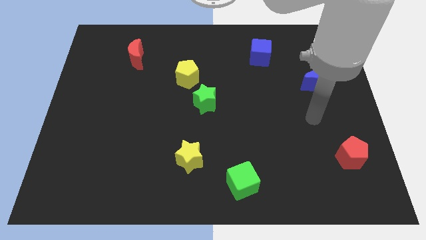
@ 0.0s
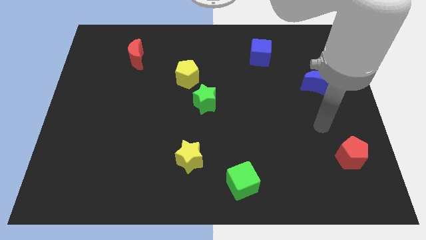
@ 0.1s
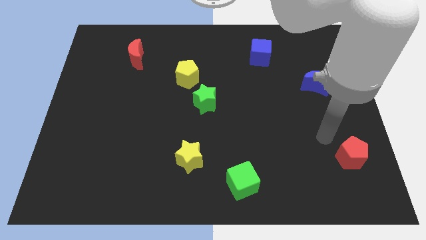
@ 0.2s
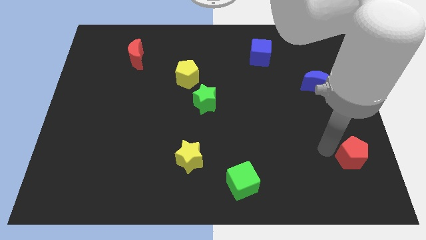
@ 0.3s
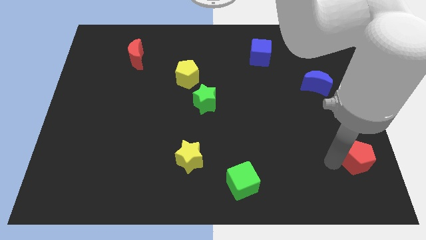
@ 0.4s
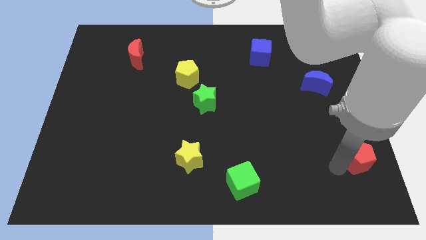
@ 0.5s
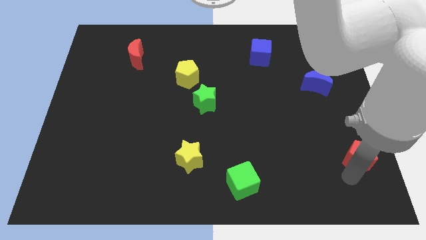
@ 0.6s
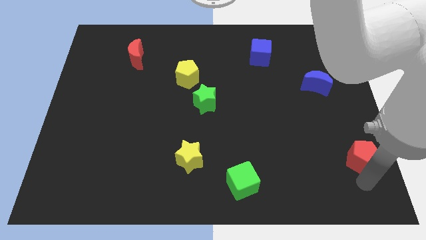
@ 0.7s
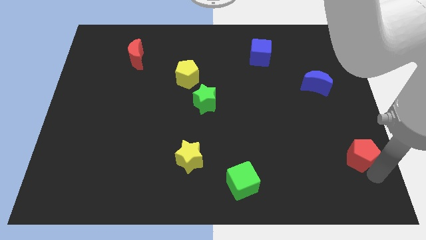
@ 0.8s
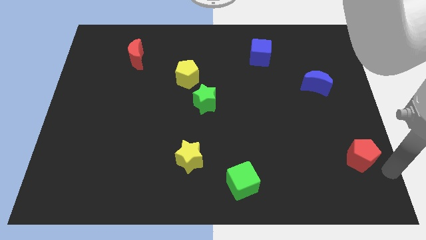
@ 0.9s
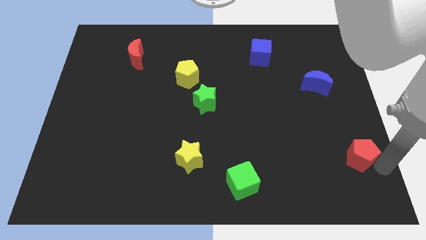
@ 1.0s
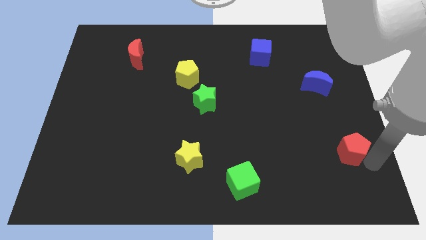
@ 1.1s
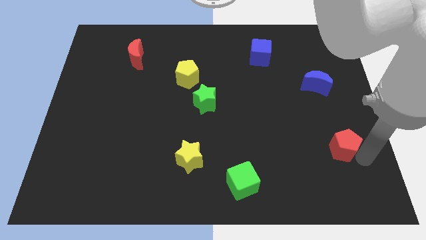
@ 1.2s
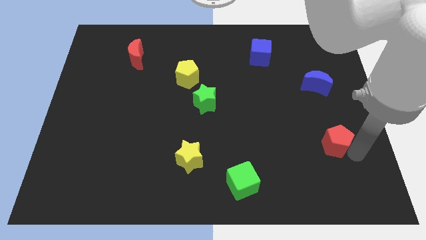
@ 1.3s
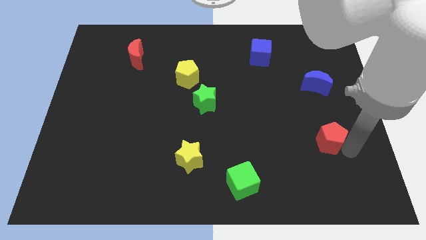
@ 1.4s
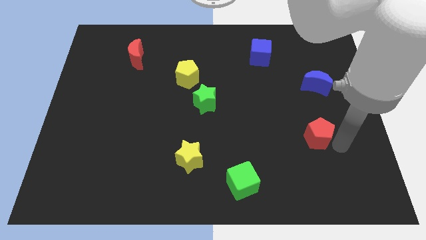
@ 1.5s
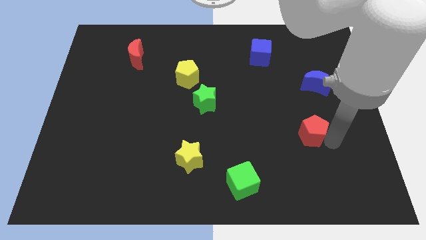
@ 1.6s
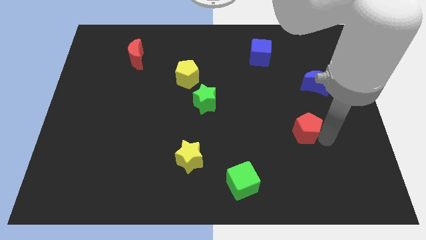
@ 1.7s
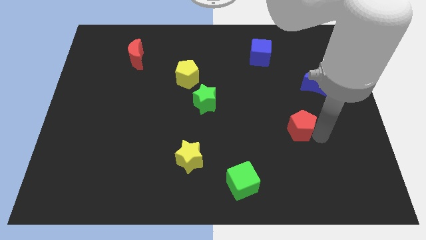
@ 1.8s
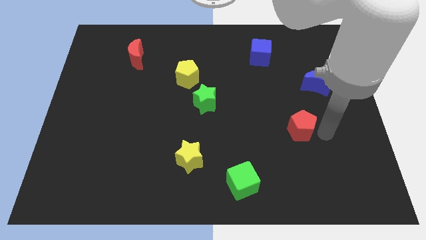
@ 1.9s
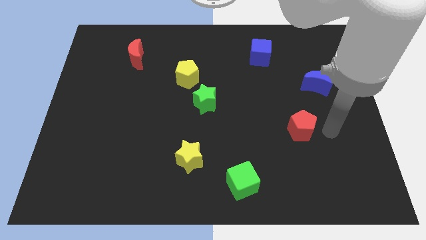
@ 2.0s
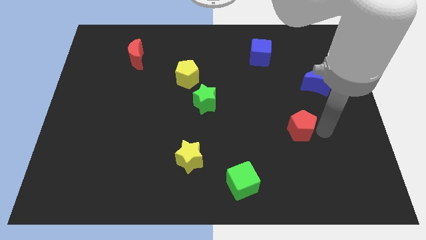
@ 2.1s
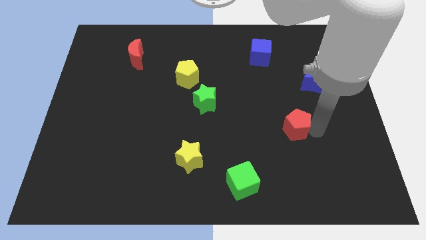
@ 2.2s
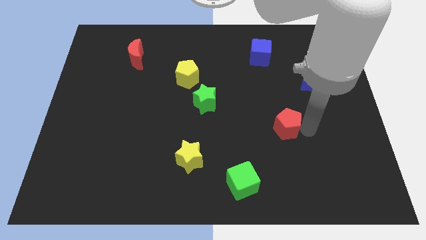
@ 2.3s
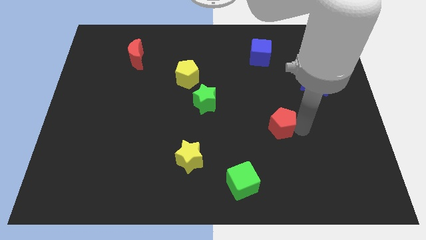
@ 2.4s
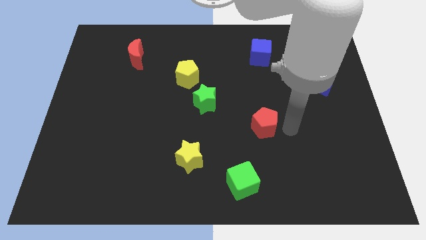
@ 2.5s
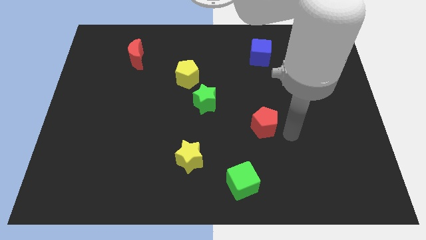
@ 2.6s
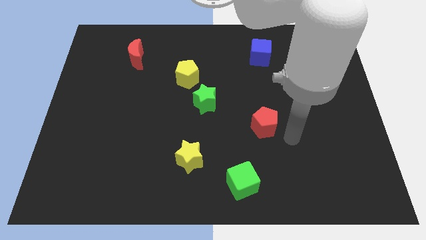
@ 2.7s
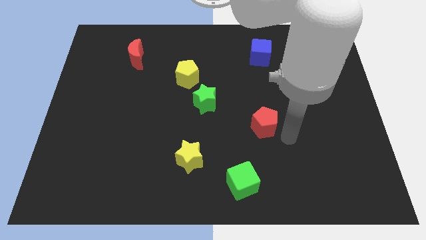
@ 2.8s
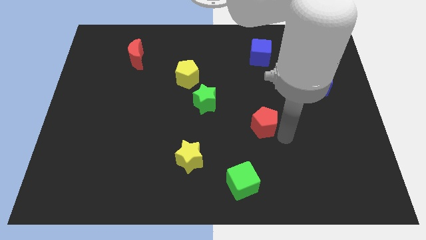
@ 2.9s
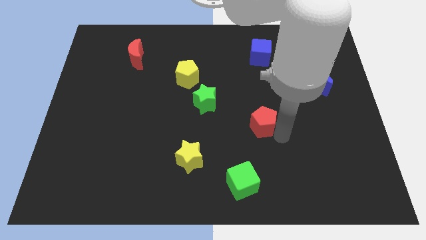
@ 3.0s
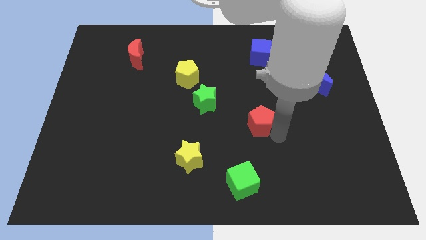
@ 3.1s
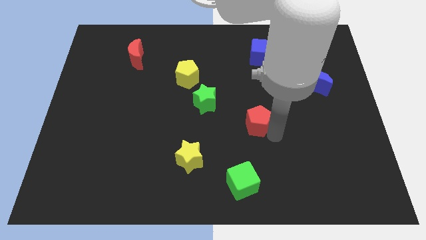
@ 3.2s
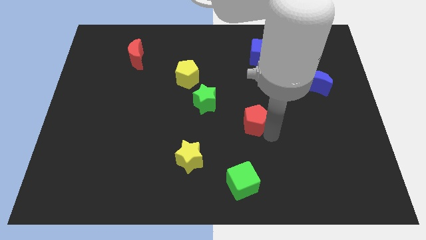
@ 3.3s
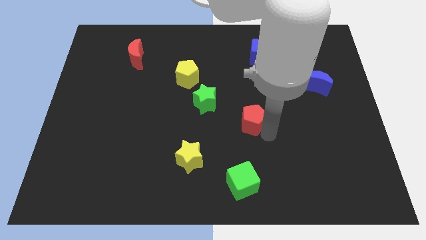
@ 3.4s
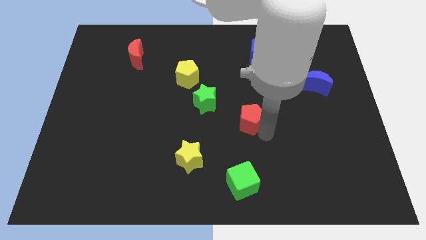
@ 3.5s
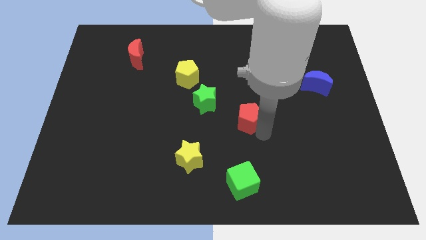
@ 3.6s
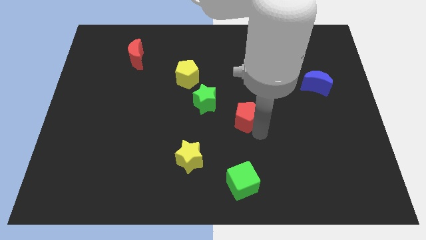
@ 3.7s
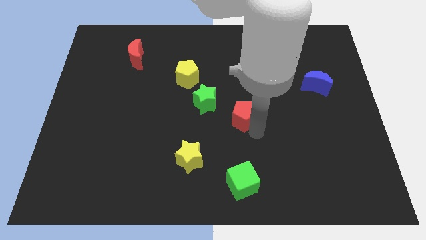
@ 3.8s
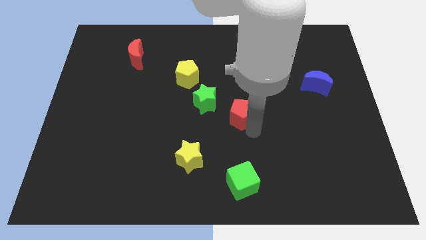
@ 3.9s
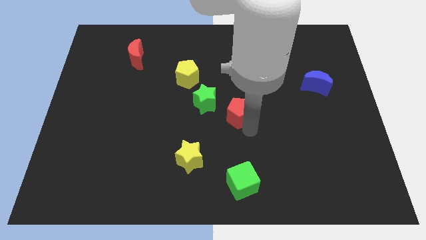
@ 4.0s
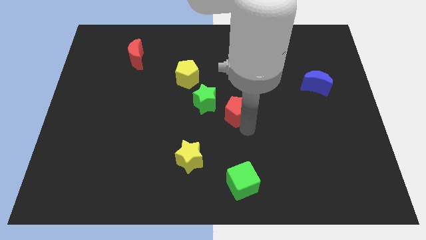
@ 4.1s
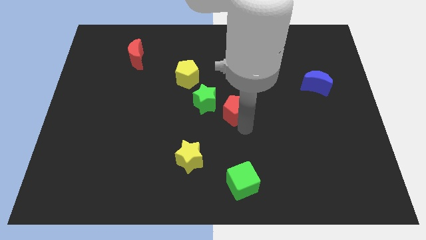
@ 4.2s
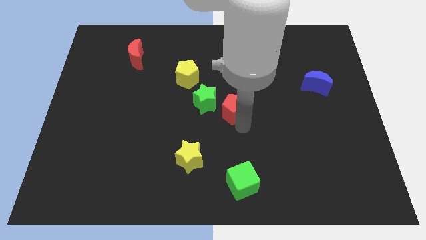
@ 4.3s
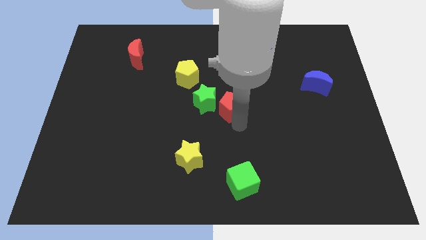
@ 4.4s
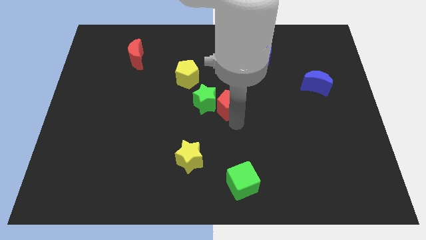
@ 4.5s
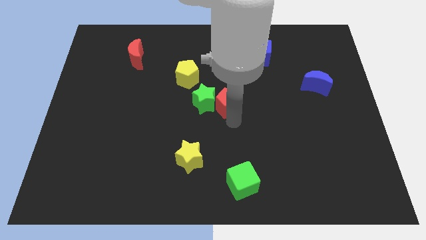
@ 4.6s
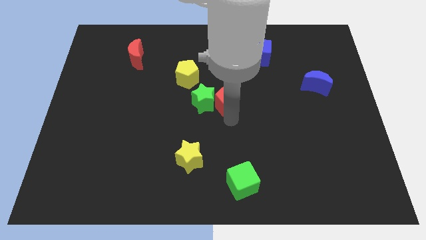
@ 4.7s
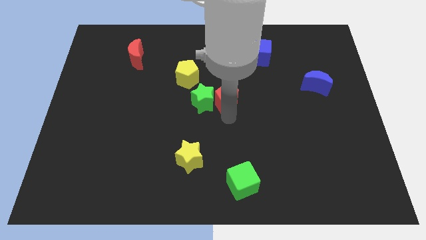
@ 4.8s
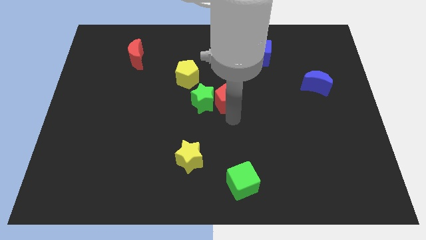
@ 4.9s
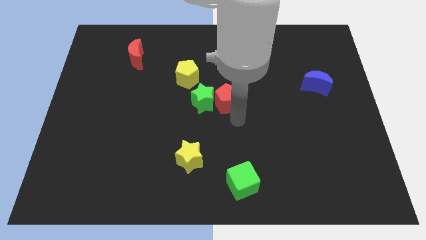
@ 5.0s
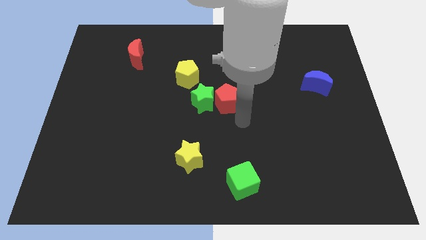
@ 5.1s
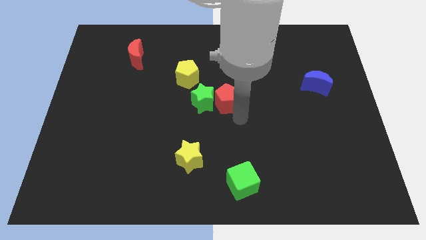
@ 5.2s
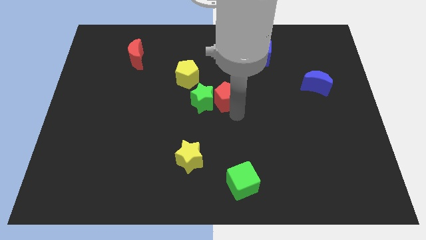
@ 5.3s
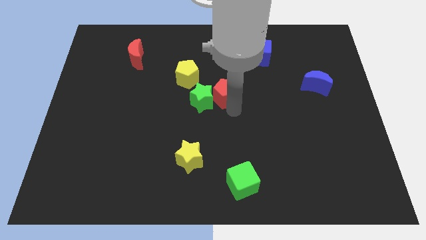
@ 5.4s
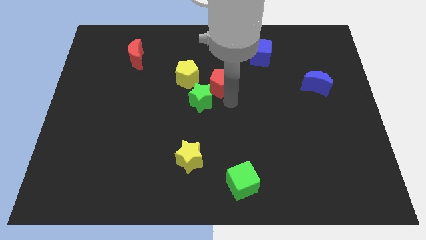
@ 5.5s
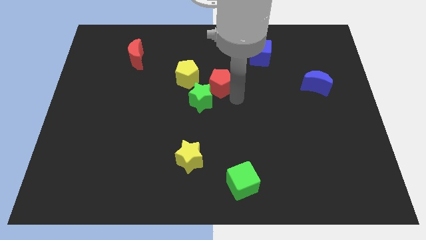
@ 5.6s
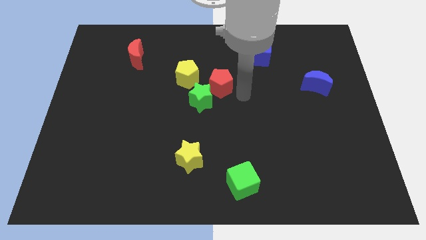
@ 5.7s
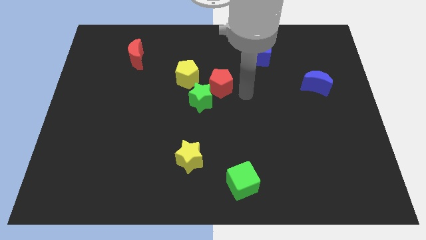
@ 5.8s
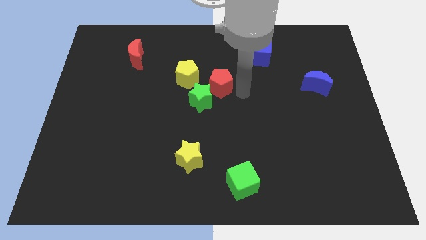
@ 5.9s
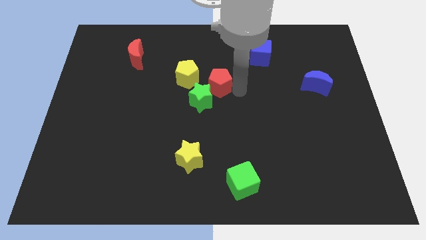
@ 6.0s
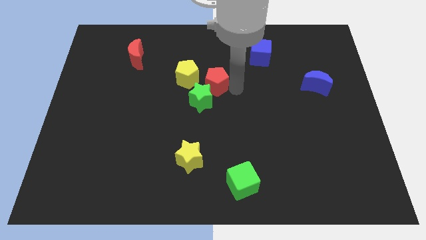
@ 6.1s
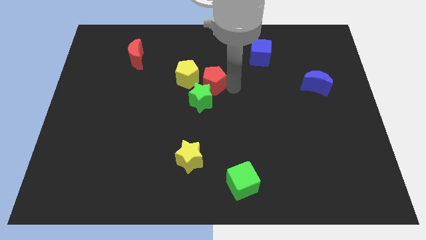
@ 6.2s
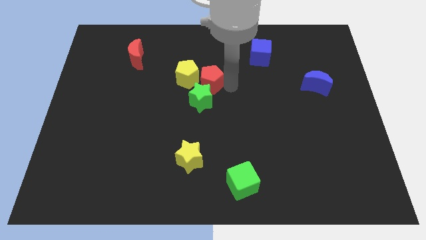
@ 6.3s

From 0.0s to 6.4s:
push the red pentagon next to the yellow pentagon

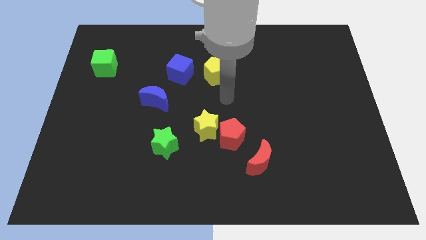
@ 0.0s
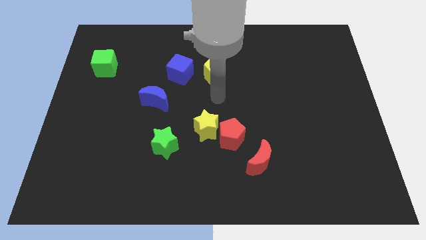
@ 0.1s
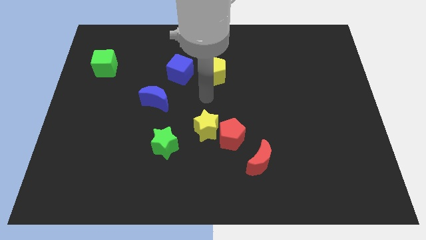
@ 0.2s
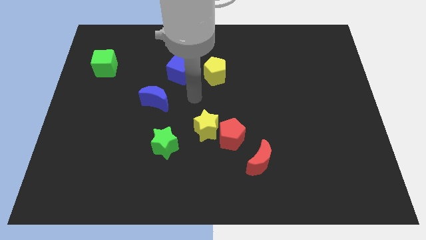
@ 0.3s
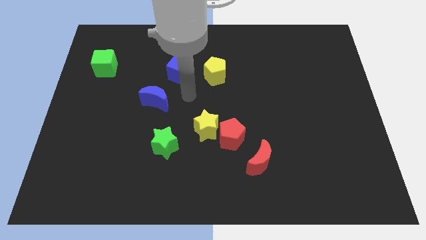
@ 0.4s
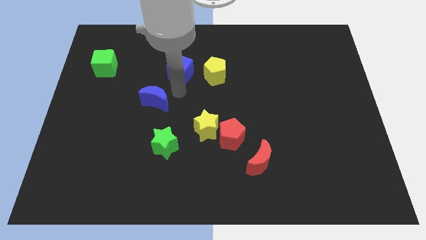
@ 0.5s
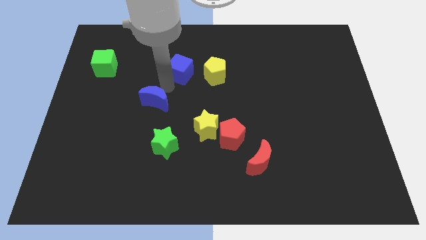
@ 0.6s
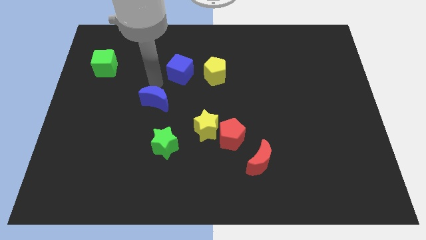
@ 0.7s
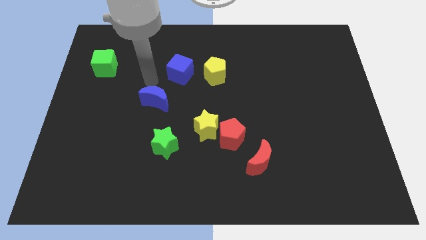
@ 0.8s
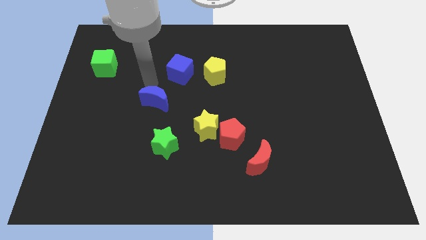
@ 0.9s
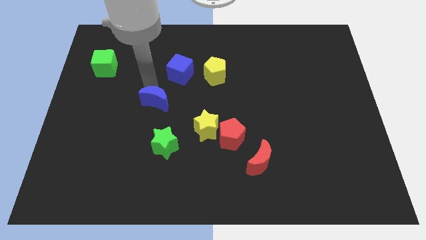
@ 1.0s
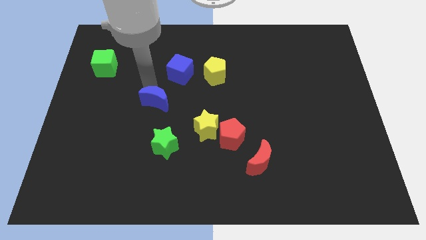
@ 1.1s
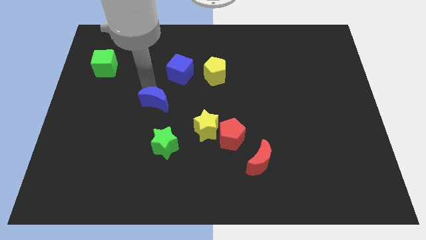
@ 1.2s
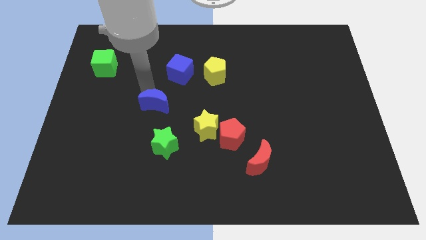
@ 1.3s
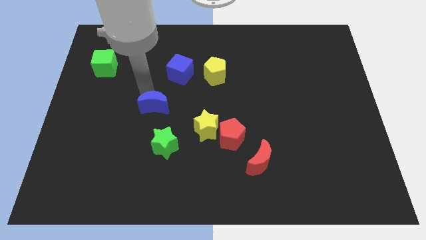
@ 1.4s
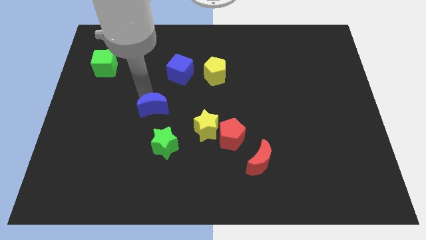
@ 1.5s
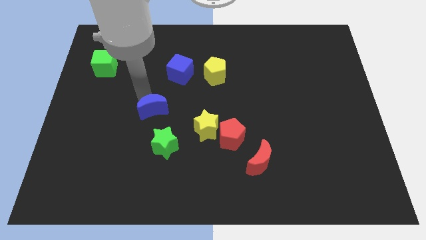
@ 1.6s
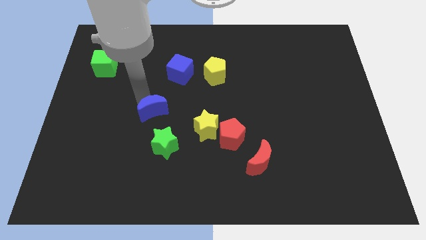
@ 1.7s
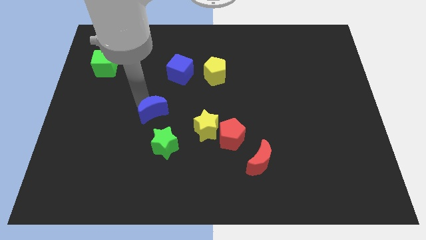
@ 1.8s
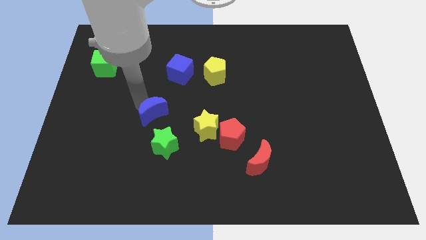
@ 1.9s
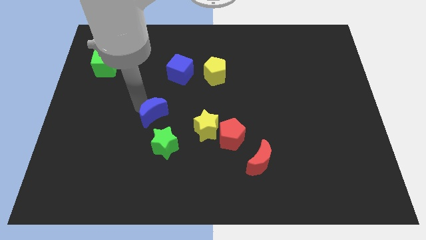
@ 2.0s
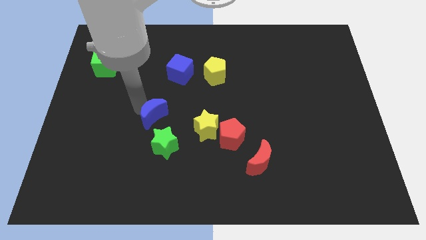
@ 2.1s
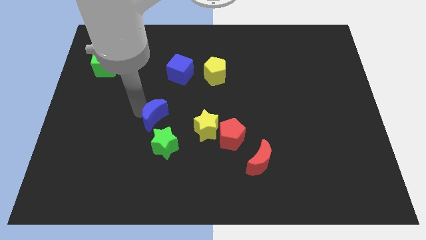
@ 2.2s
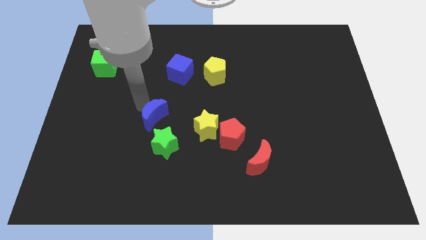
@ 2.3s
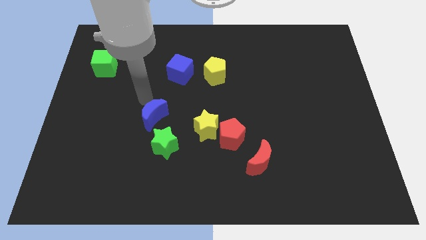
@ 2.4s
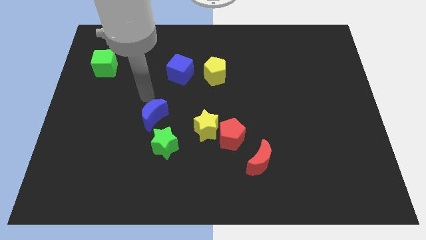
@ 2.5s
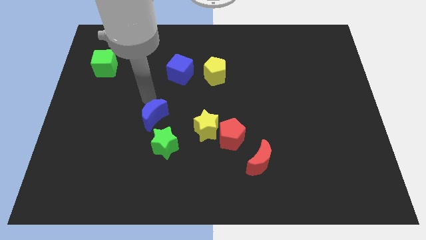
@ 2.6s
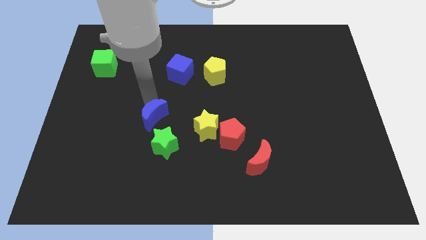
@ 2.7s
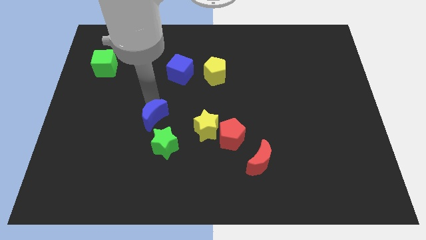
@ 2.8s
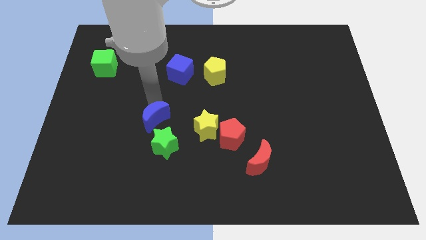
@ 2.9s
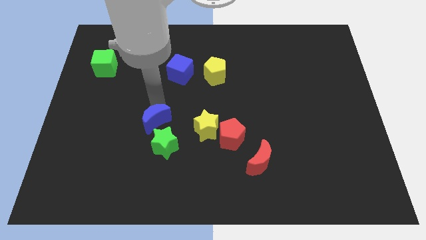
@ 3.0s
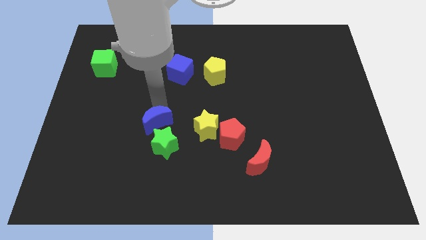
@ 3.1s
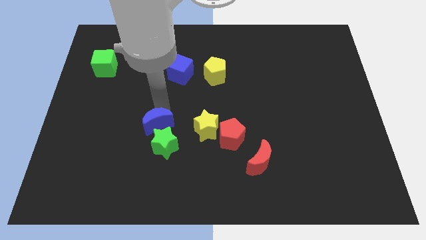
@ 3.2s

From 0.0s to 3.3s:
push the blue moon to the green star
